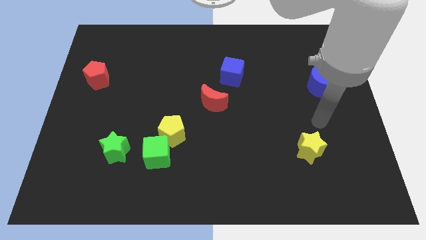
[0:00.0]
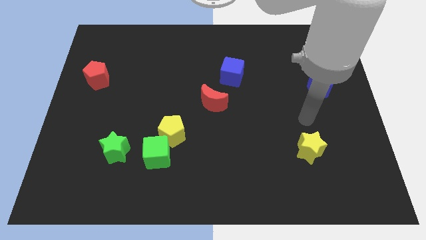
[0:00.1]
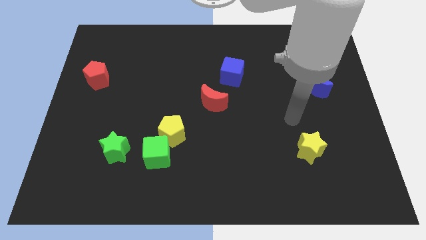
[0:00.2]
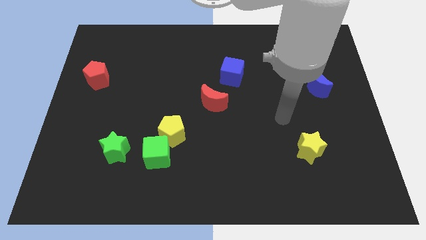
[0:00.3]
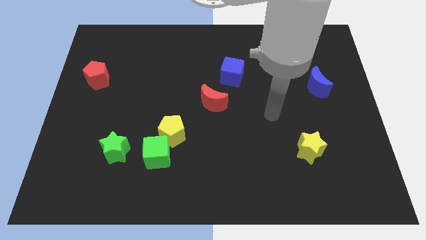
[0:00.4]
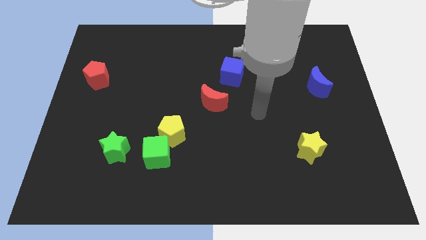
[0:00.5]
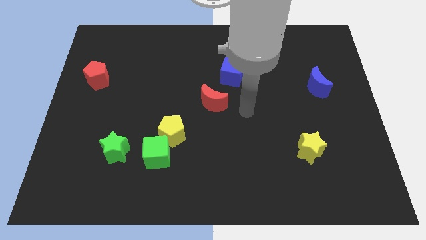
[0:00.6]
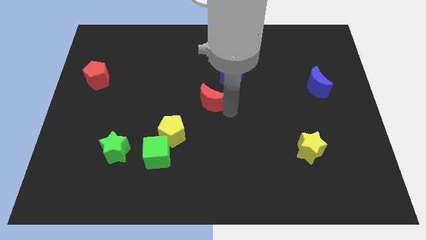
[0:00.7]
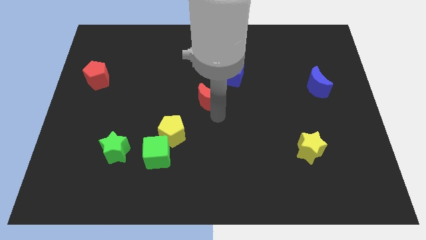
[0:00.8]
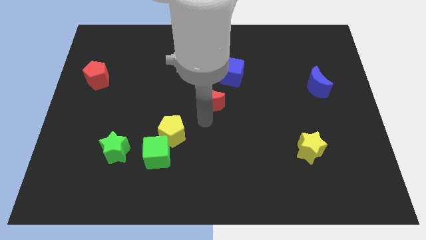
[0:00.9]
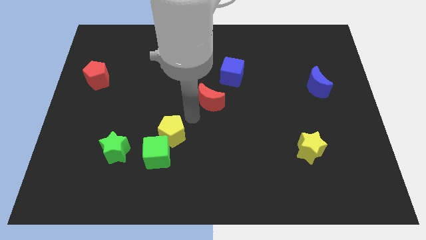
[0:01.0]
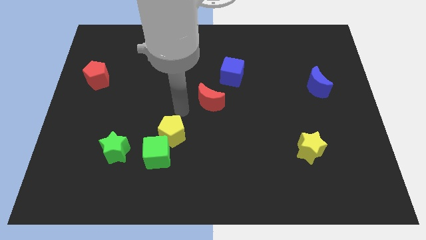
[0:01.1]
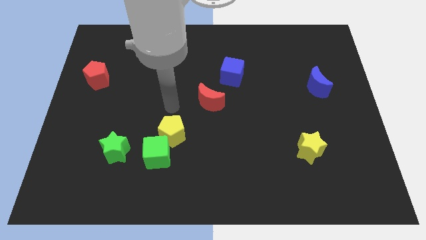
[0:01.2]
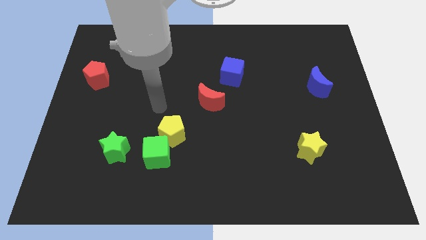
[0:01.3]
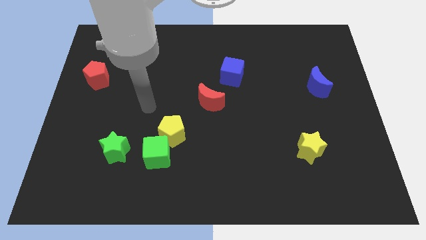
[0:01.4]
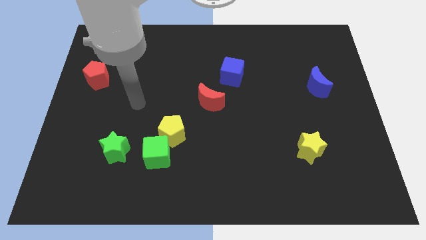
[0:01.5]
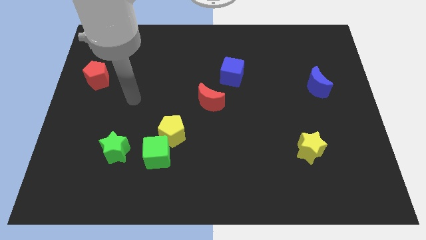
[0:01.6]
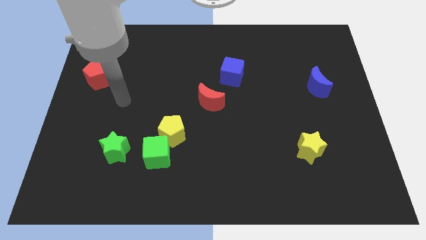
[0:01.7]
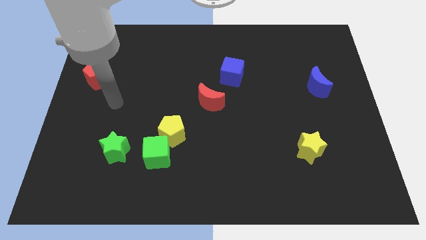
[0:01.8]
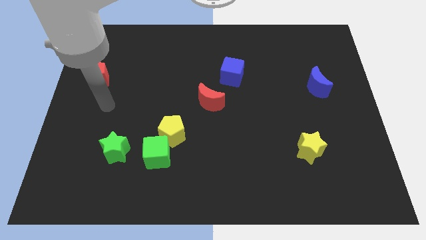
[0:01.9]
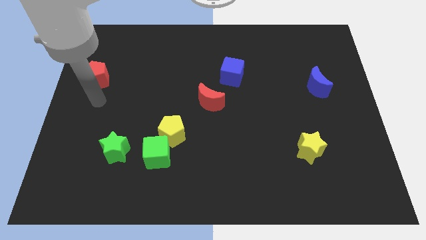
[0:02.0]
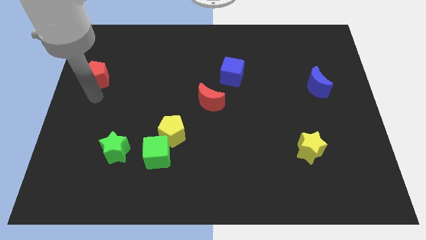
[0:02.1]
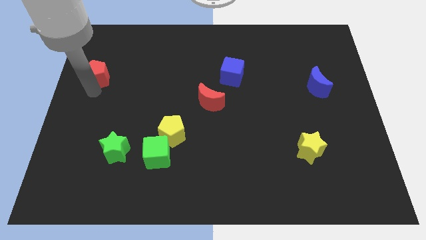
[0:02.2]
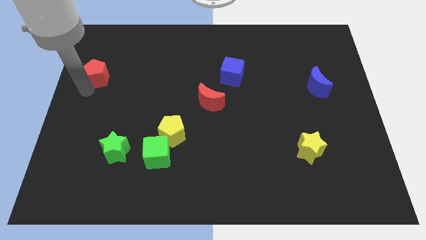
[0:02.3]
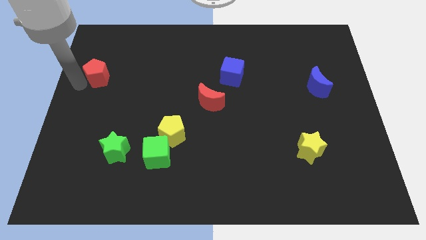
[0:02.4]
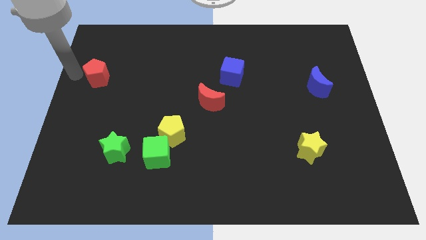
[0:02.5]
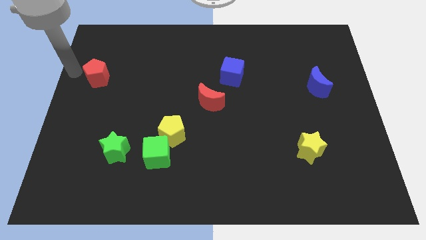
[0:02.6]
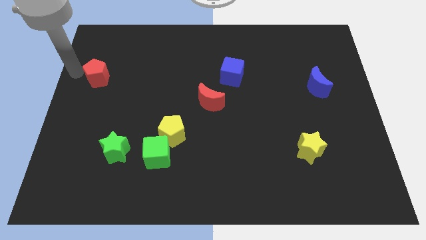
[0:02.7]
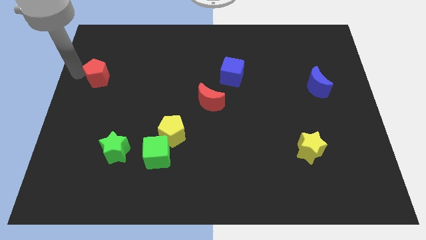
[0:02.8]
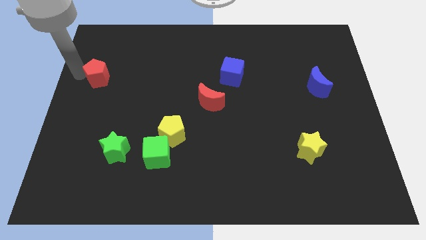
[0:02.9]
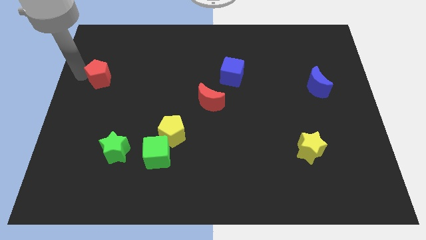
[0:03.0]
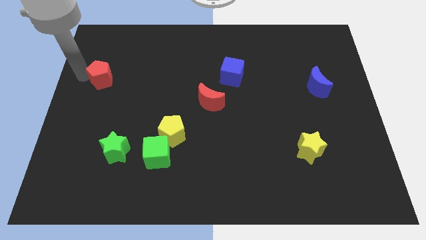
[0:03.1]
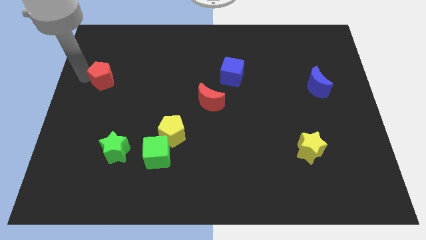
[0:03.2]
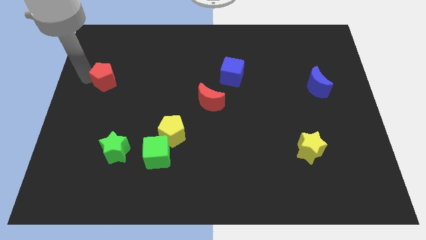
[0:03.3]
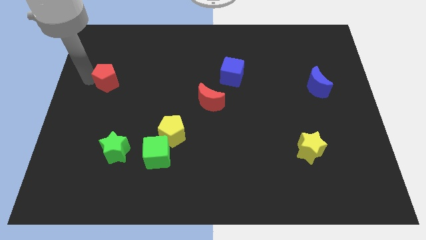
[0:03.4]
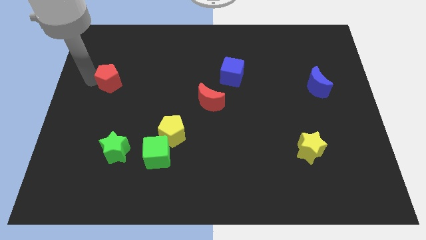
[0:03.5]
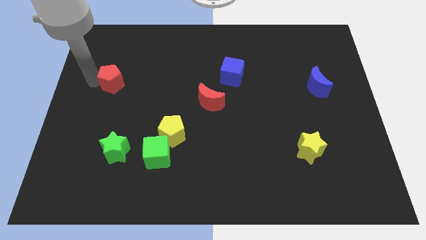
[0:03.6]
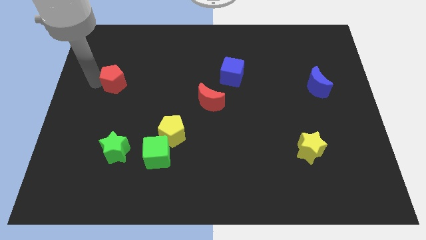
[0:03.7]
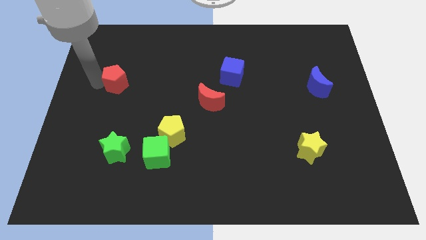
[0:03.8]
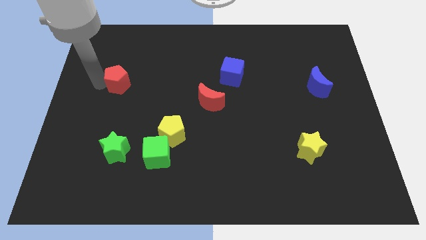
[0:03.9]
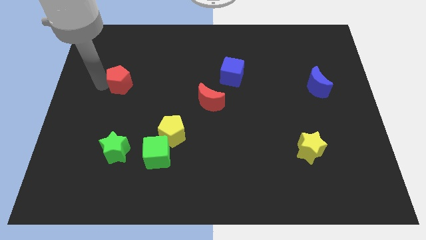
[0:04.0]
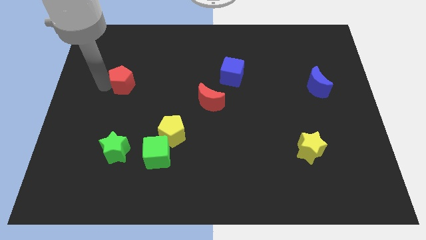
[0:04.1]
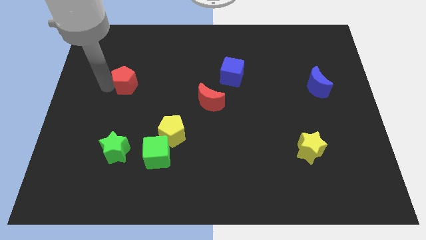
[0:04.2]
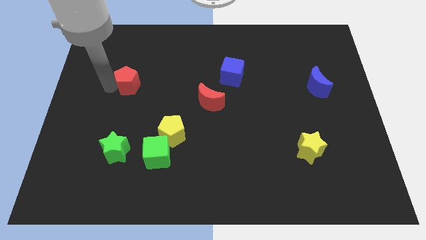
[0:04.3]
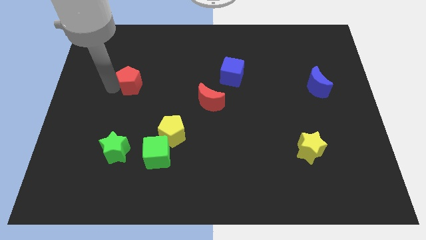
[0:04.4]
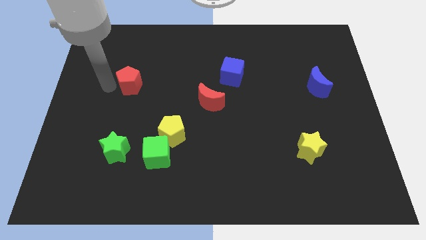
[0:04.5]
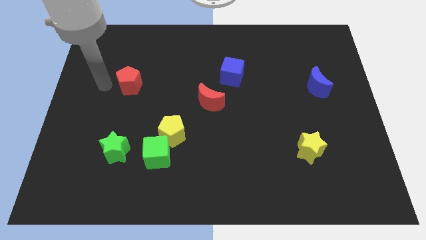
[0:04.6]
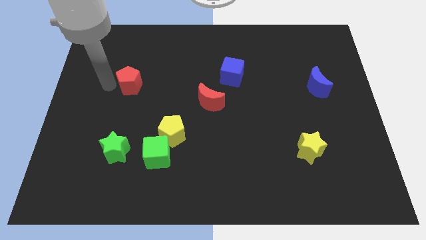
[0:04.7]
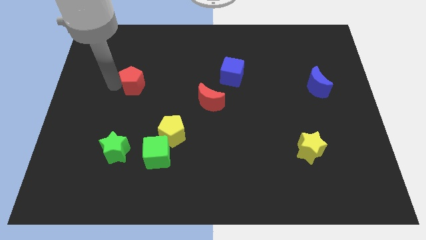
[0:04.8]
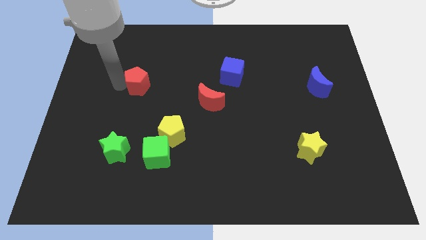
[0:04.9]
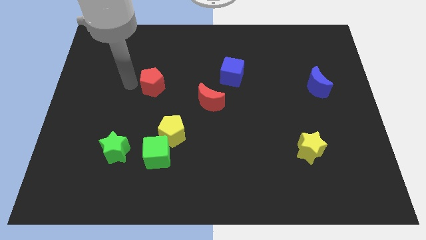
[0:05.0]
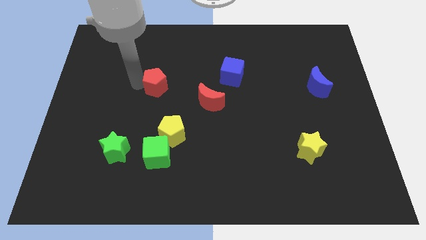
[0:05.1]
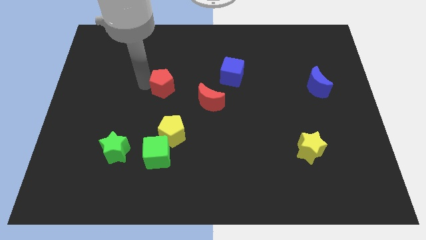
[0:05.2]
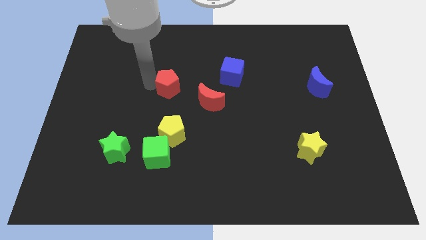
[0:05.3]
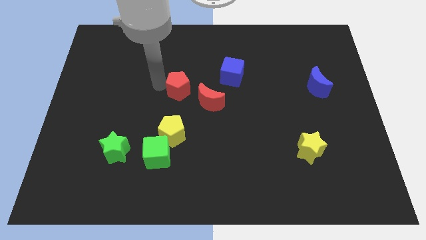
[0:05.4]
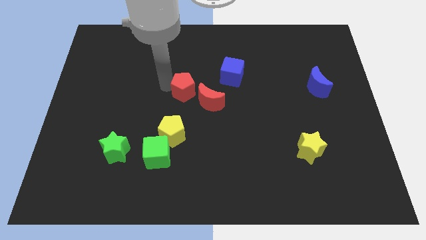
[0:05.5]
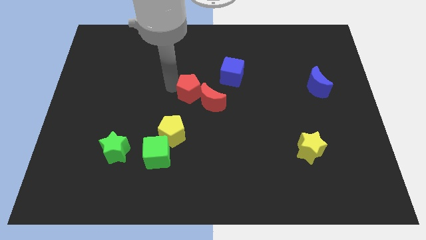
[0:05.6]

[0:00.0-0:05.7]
push the red pentagon next to the red moon
